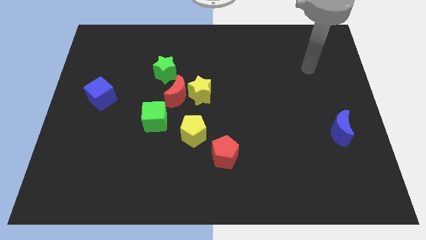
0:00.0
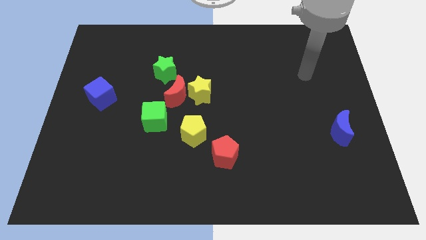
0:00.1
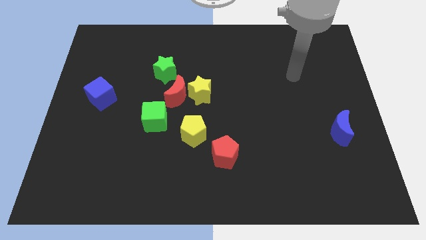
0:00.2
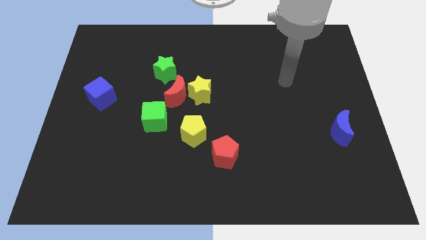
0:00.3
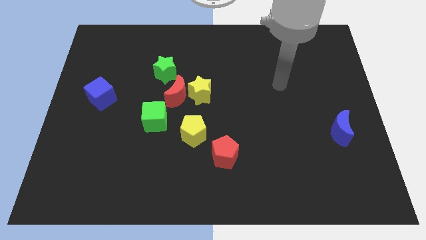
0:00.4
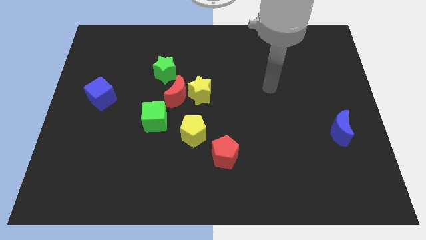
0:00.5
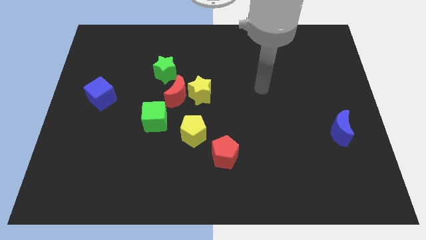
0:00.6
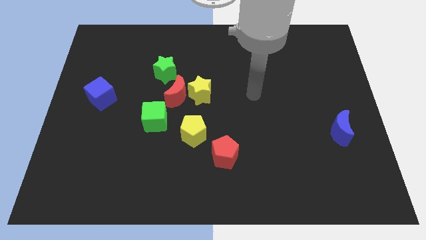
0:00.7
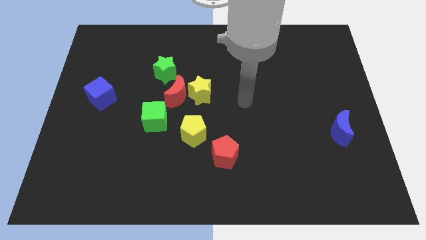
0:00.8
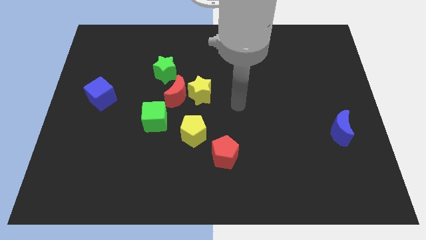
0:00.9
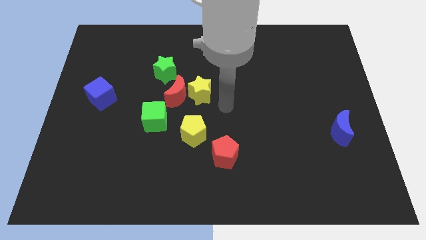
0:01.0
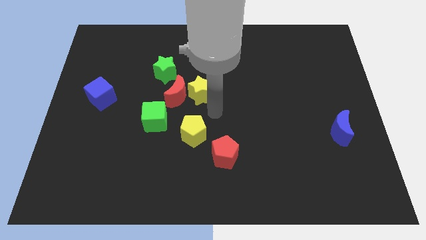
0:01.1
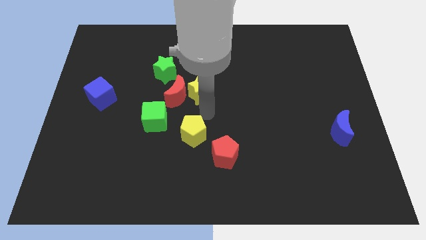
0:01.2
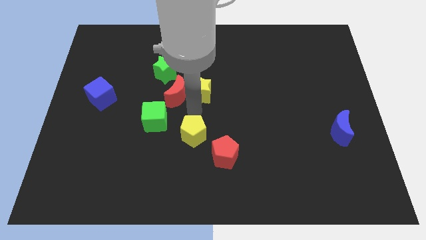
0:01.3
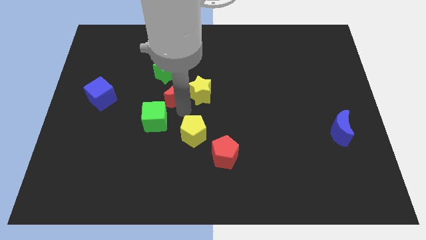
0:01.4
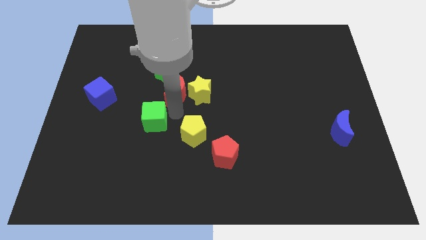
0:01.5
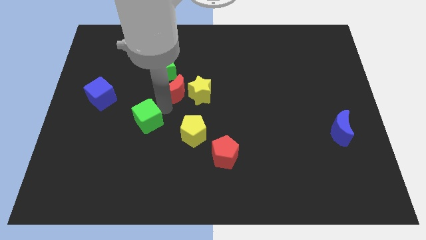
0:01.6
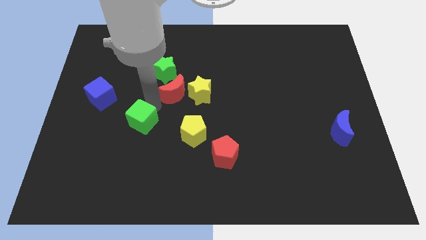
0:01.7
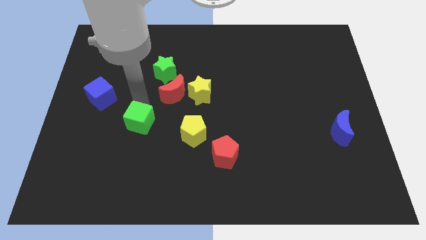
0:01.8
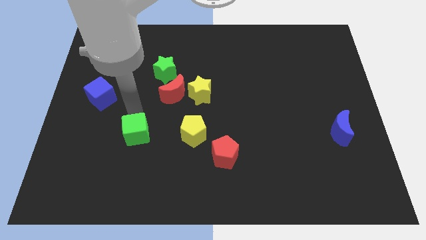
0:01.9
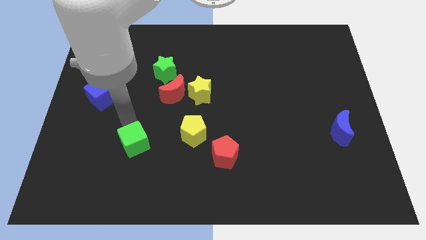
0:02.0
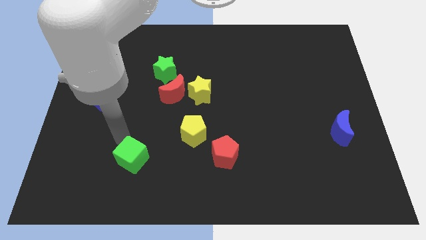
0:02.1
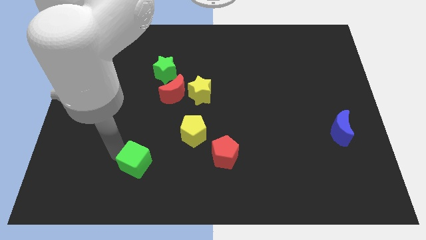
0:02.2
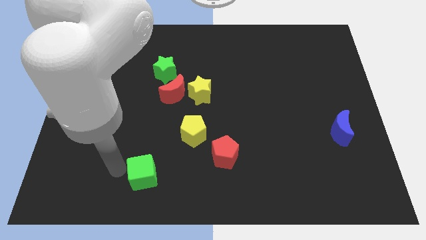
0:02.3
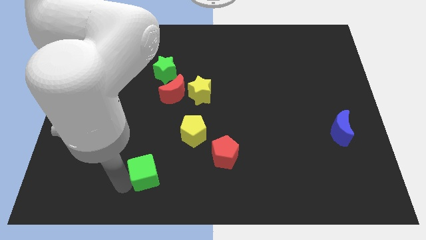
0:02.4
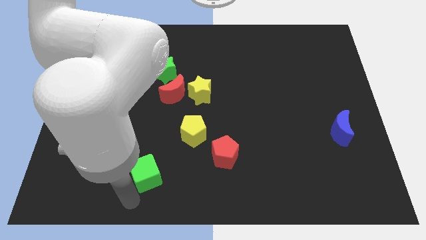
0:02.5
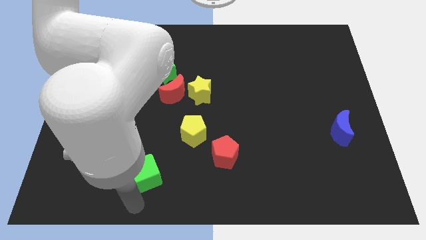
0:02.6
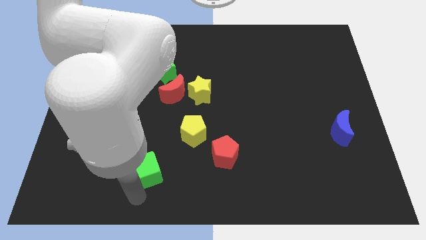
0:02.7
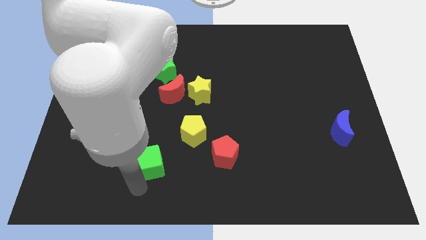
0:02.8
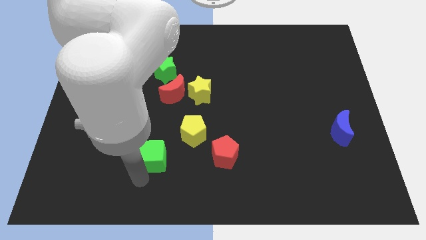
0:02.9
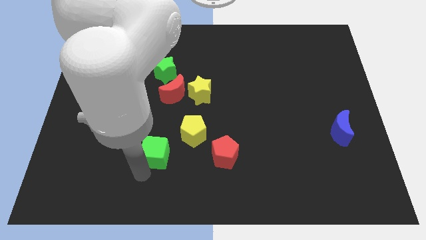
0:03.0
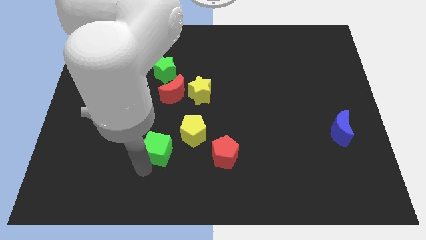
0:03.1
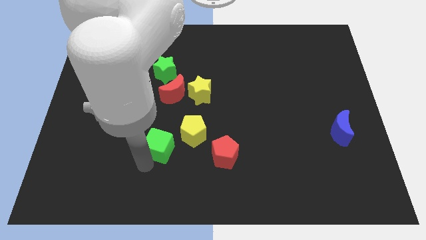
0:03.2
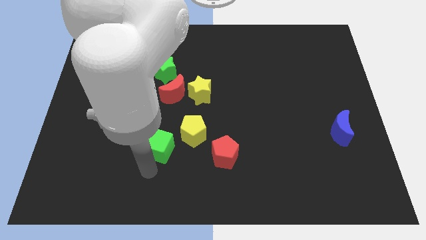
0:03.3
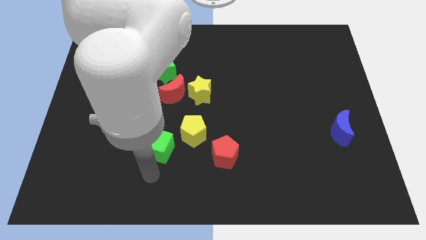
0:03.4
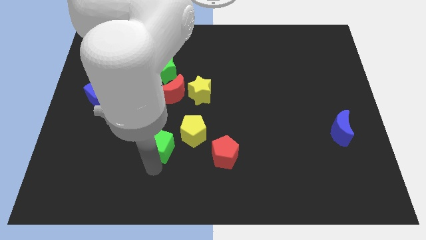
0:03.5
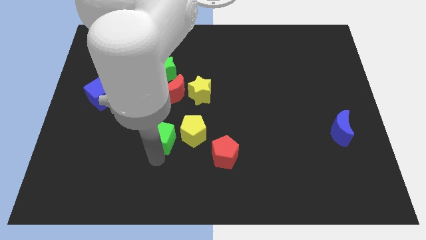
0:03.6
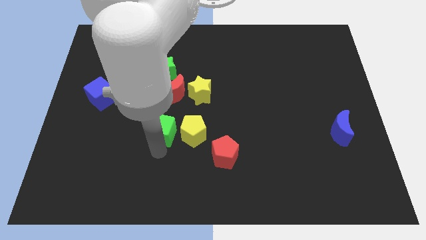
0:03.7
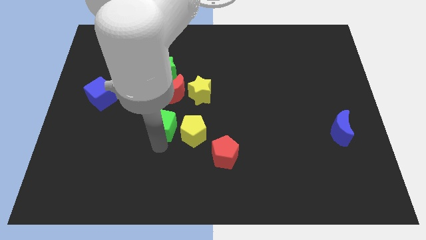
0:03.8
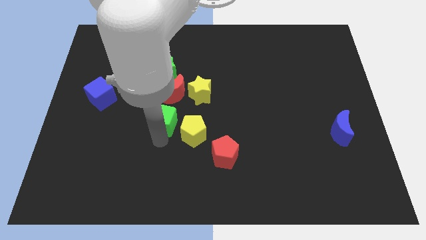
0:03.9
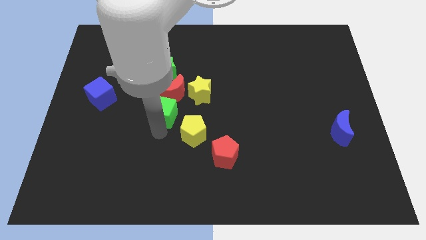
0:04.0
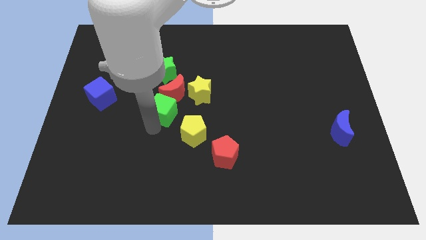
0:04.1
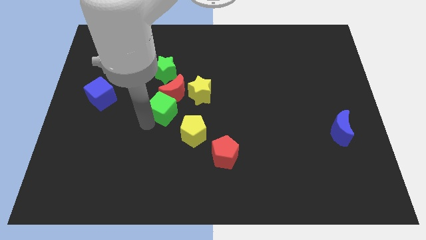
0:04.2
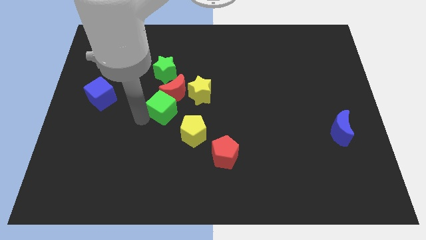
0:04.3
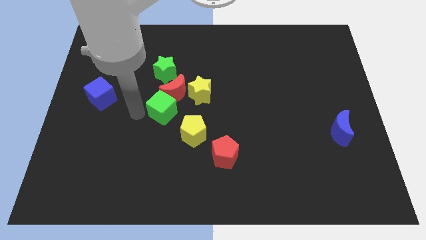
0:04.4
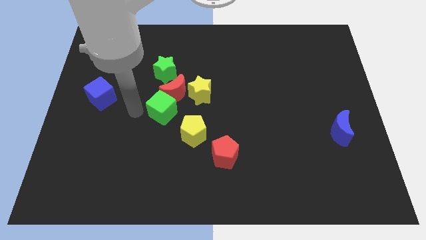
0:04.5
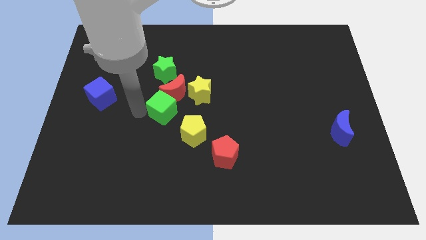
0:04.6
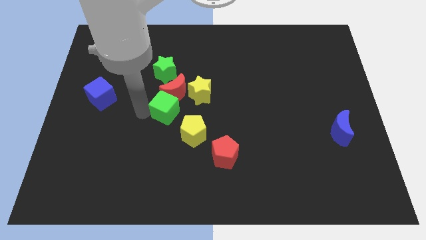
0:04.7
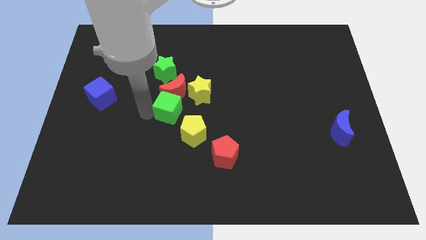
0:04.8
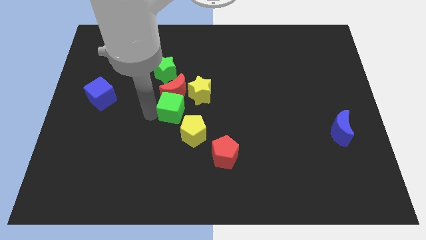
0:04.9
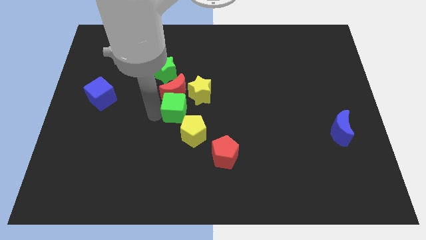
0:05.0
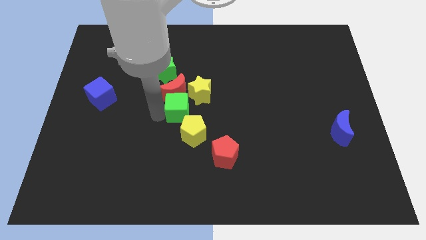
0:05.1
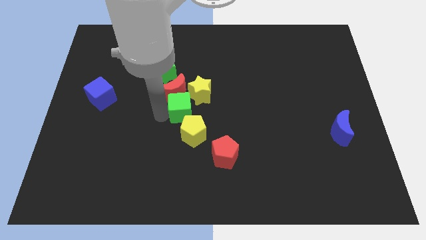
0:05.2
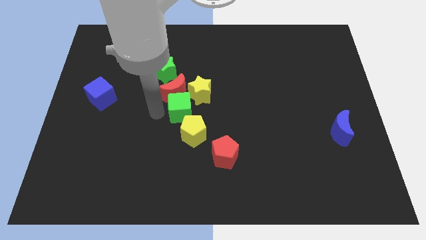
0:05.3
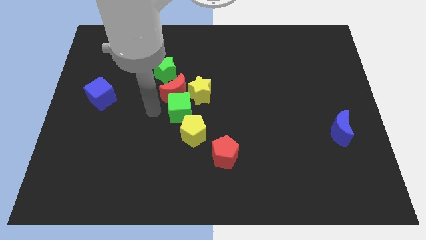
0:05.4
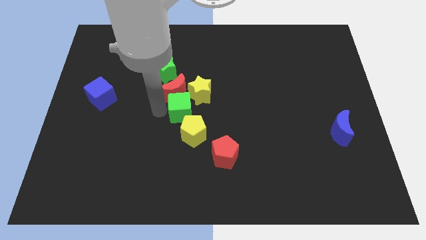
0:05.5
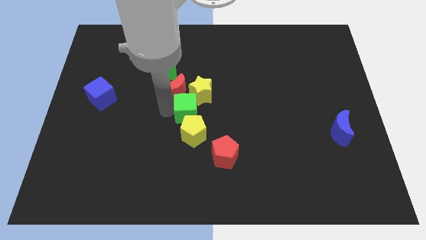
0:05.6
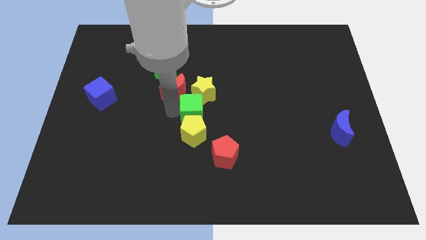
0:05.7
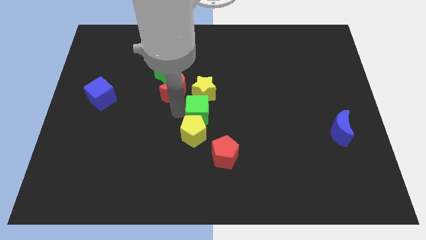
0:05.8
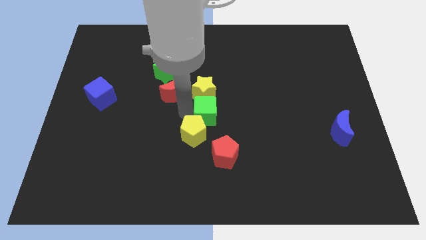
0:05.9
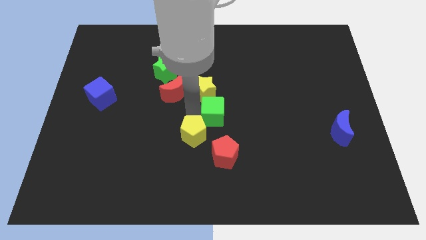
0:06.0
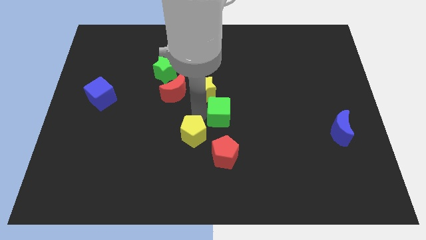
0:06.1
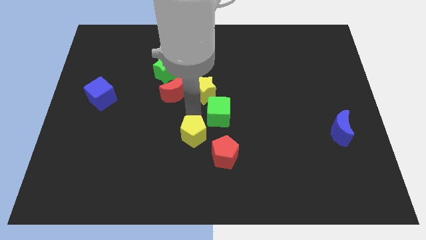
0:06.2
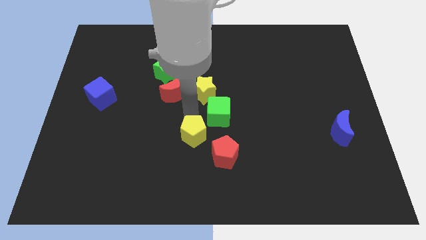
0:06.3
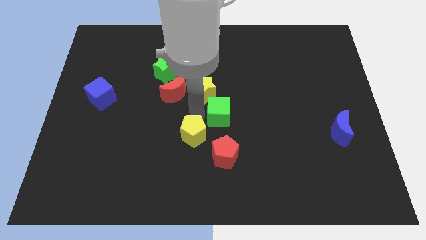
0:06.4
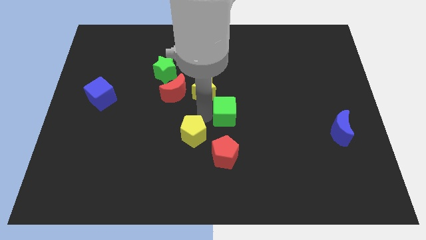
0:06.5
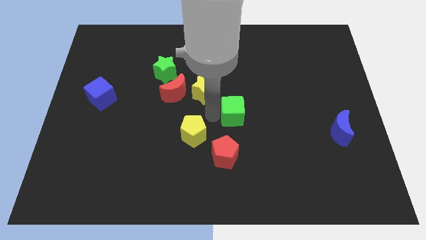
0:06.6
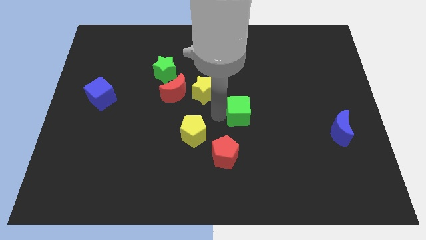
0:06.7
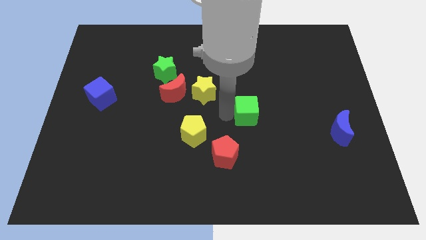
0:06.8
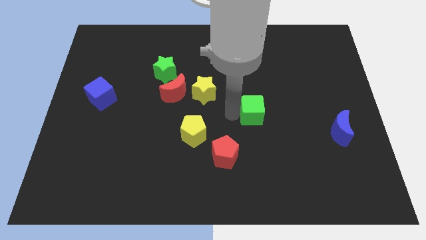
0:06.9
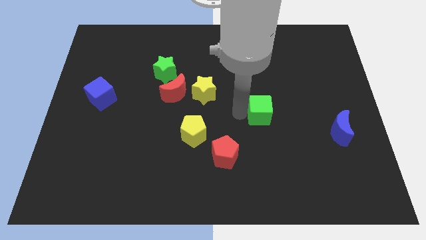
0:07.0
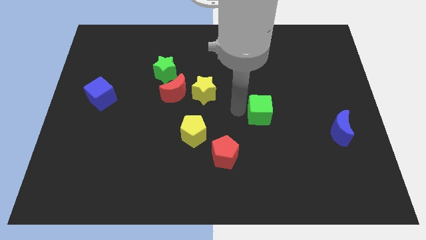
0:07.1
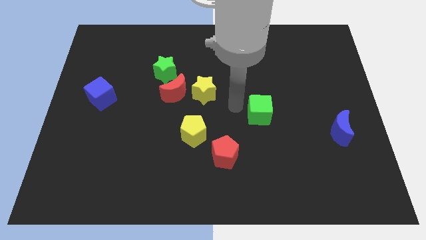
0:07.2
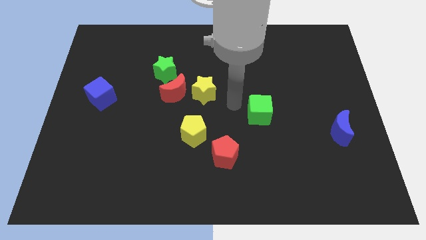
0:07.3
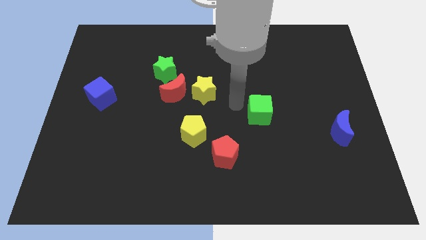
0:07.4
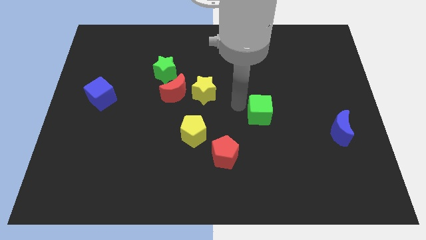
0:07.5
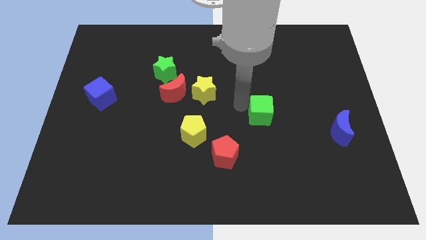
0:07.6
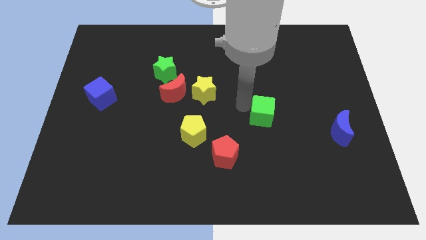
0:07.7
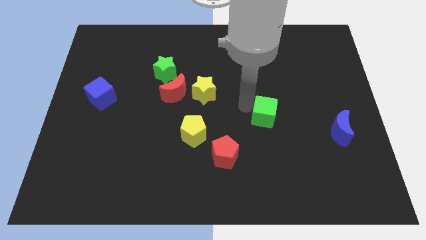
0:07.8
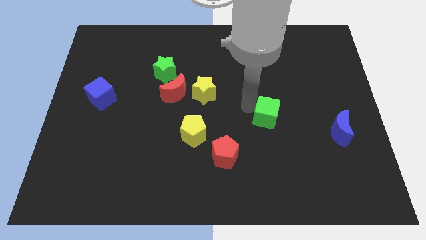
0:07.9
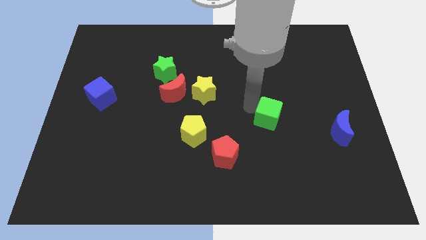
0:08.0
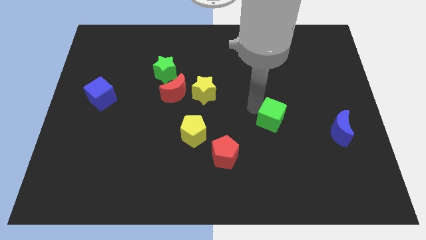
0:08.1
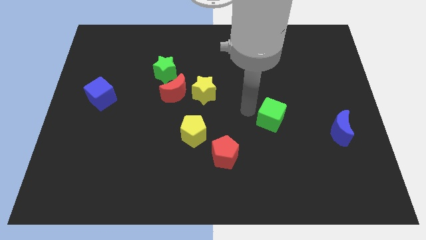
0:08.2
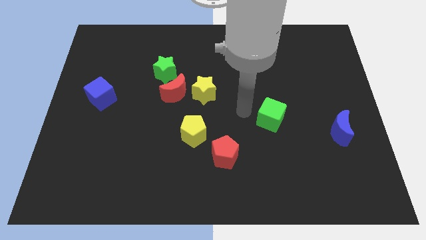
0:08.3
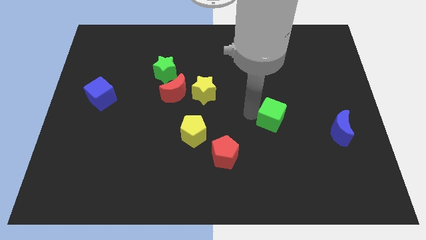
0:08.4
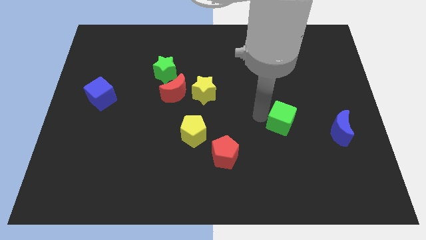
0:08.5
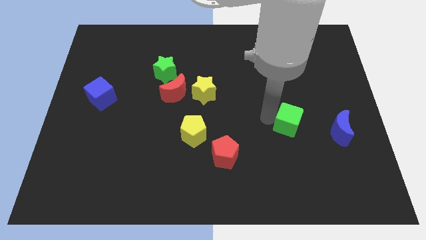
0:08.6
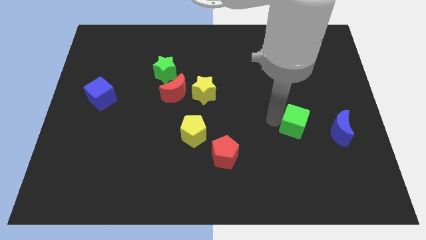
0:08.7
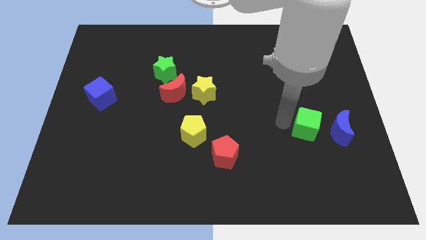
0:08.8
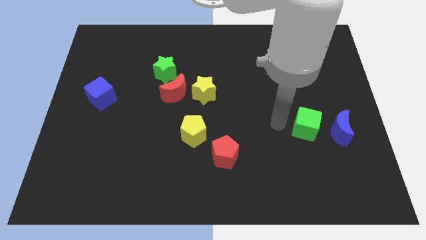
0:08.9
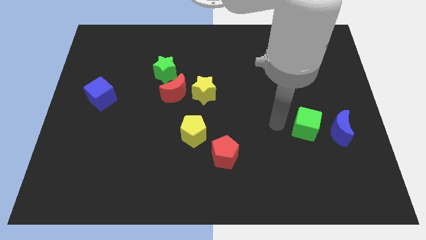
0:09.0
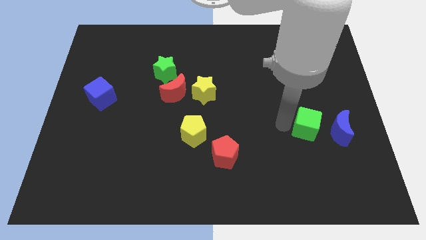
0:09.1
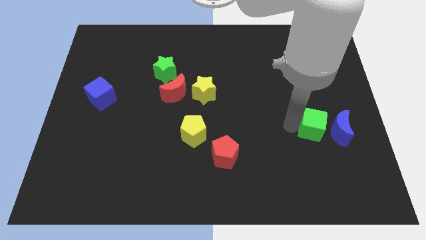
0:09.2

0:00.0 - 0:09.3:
put the green cube towards the blue moon
